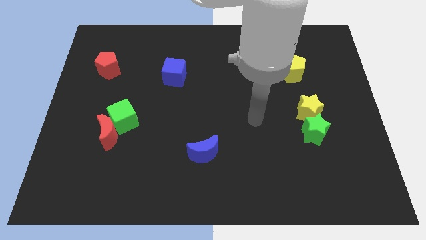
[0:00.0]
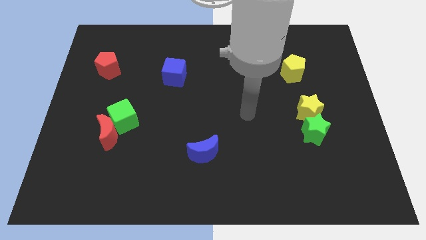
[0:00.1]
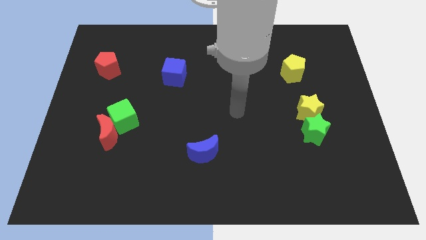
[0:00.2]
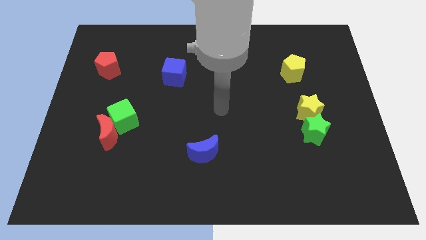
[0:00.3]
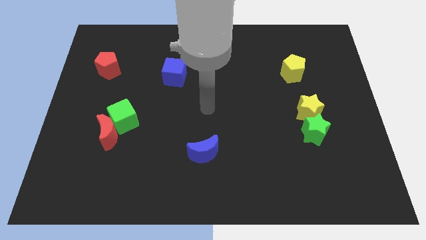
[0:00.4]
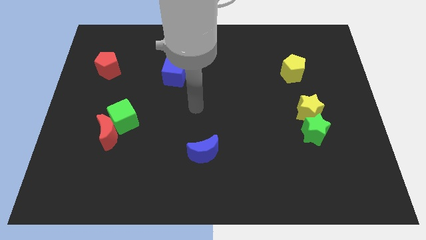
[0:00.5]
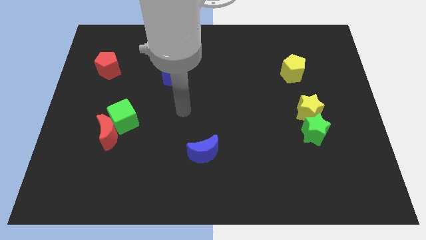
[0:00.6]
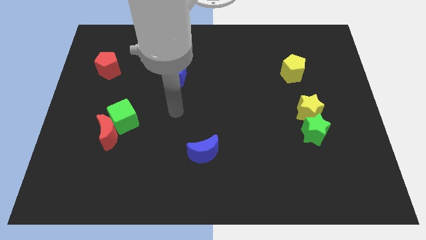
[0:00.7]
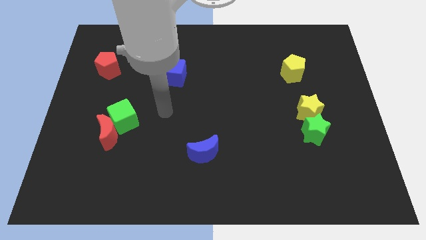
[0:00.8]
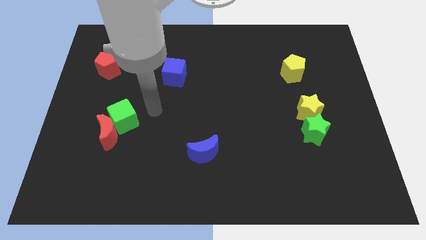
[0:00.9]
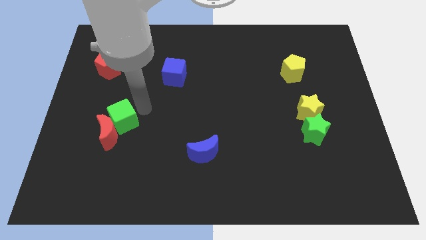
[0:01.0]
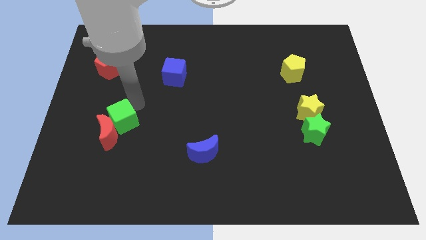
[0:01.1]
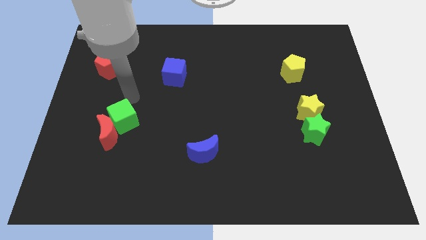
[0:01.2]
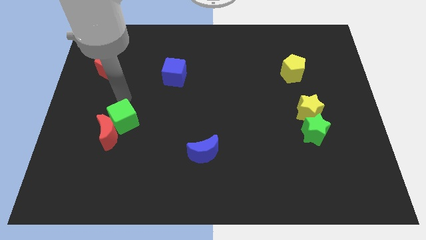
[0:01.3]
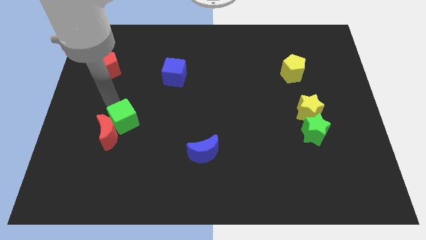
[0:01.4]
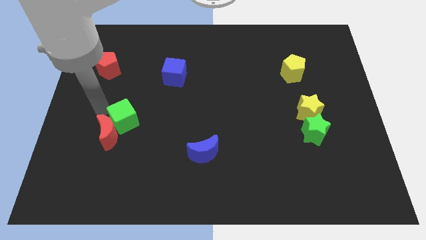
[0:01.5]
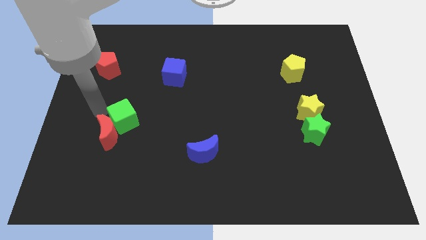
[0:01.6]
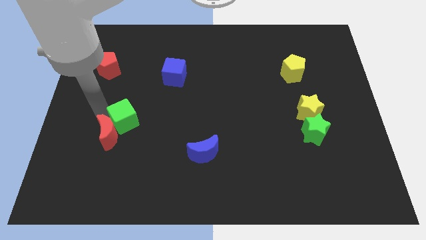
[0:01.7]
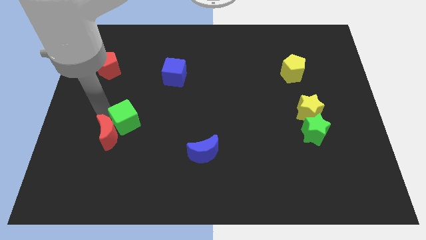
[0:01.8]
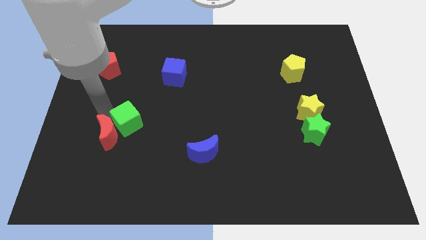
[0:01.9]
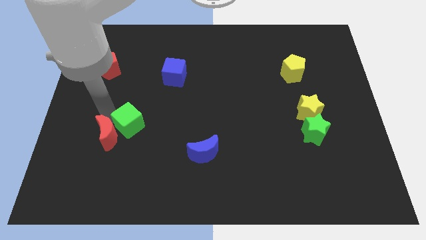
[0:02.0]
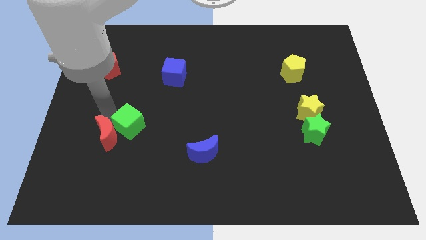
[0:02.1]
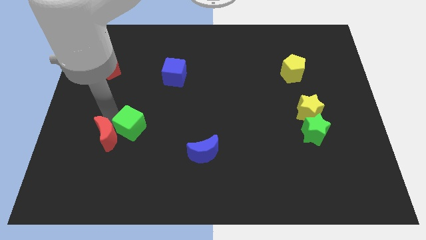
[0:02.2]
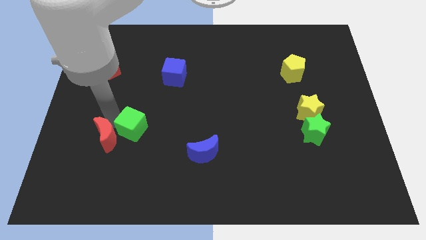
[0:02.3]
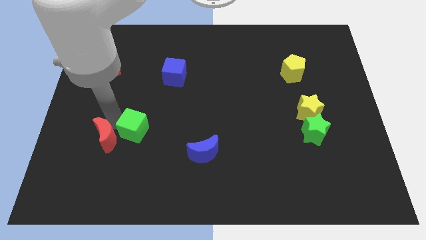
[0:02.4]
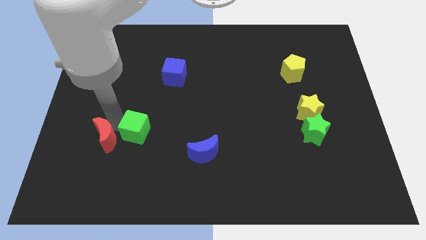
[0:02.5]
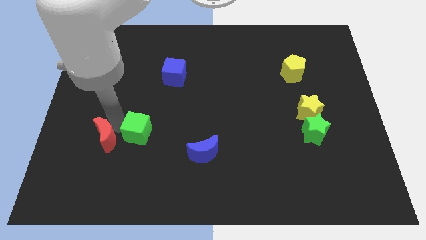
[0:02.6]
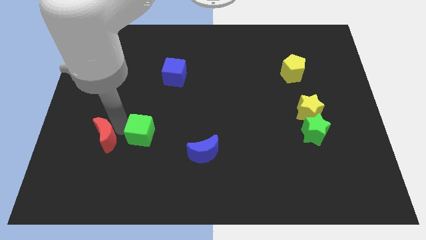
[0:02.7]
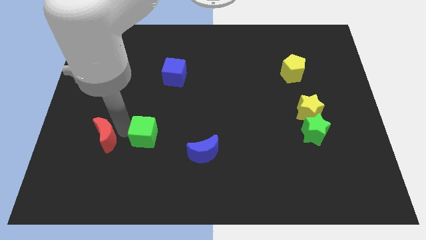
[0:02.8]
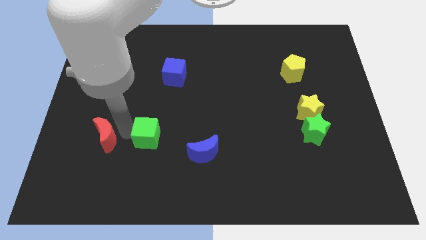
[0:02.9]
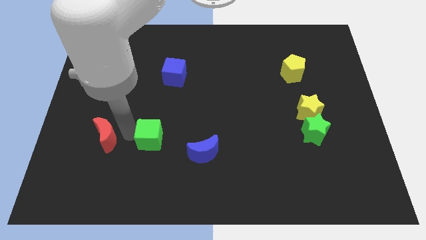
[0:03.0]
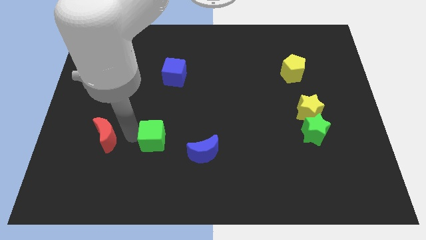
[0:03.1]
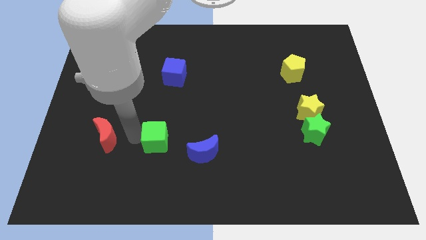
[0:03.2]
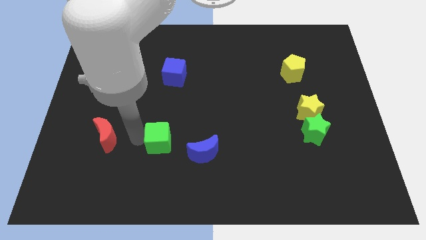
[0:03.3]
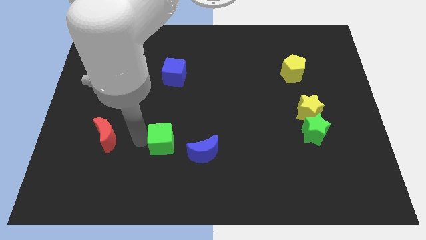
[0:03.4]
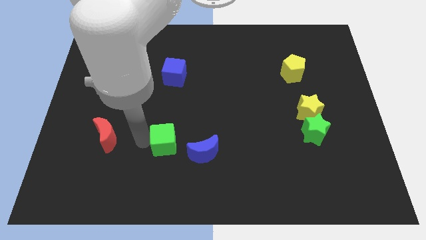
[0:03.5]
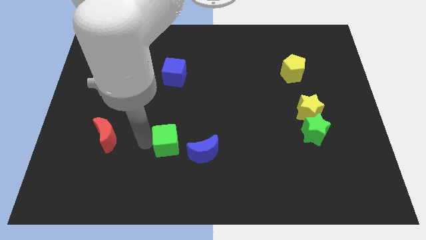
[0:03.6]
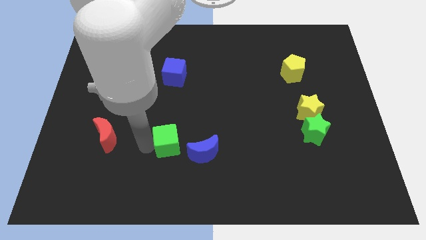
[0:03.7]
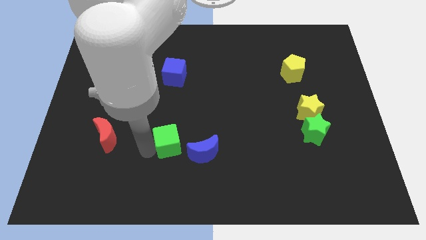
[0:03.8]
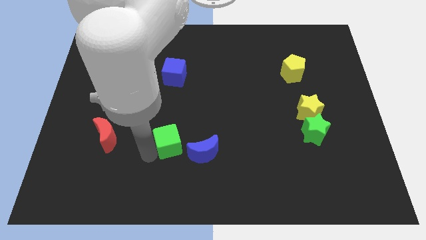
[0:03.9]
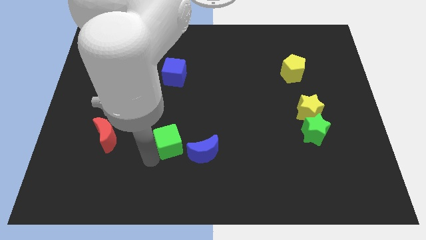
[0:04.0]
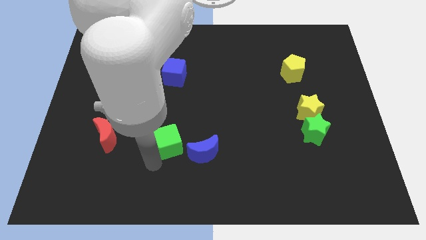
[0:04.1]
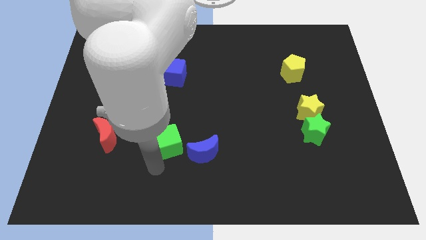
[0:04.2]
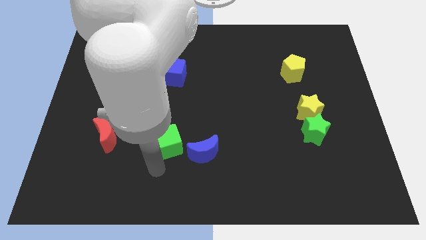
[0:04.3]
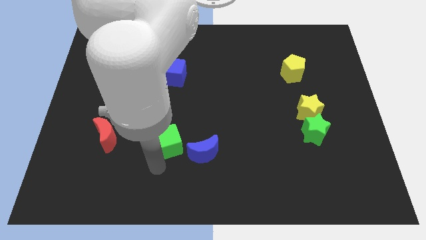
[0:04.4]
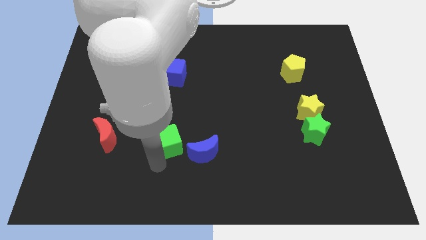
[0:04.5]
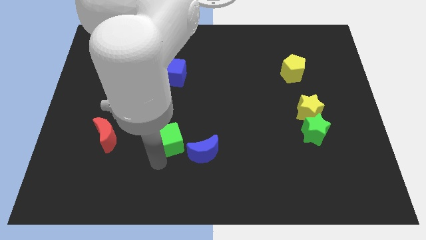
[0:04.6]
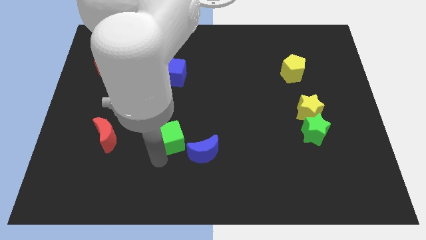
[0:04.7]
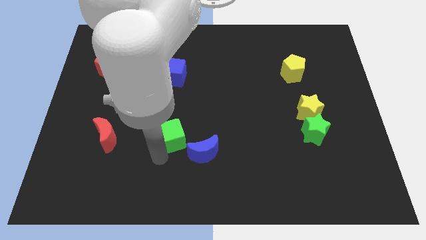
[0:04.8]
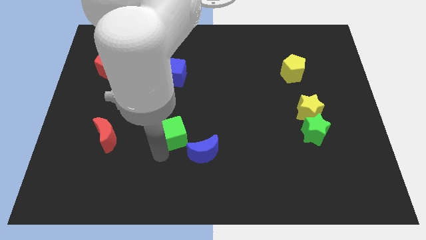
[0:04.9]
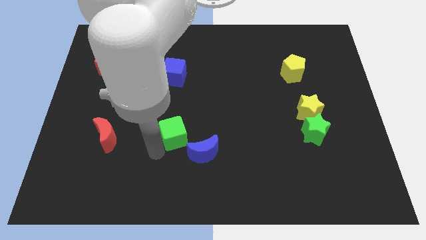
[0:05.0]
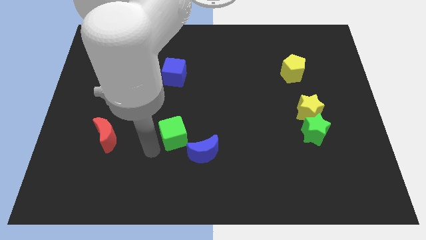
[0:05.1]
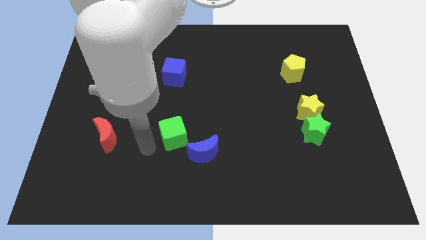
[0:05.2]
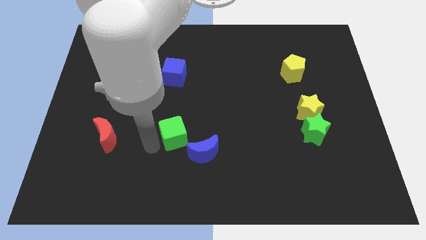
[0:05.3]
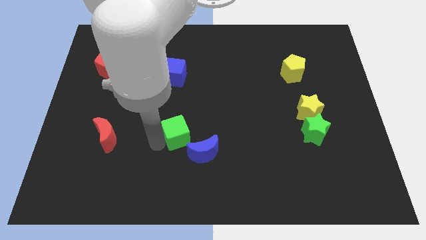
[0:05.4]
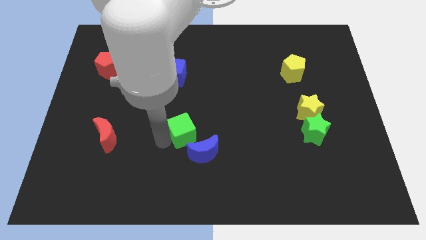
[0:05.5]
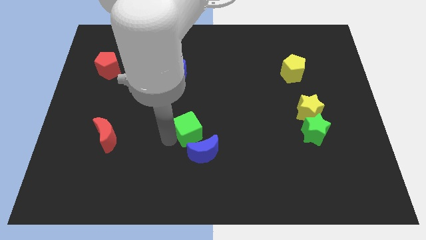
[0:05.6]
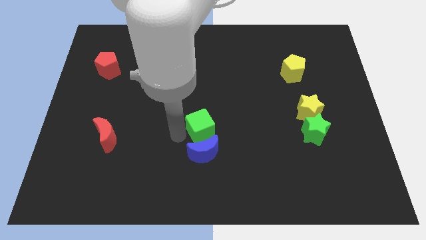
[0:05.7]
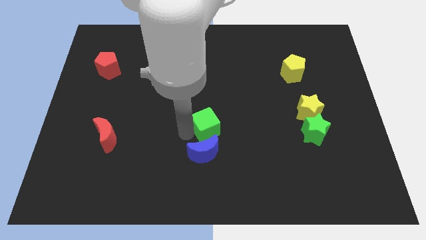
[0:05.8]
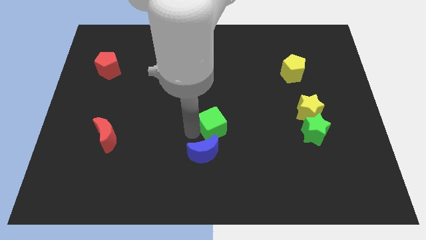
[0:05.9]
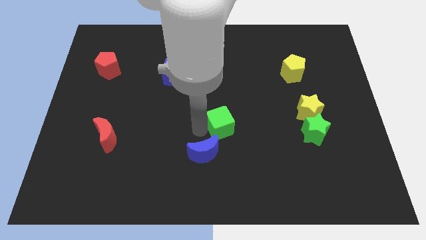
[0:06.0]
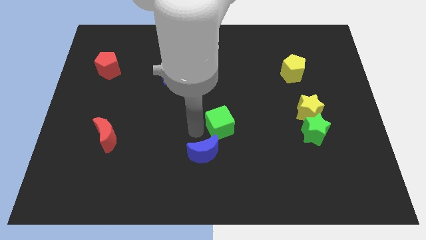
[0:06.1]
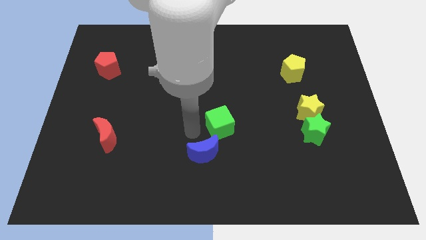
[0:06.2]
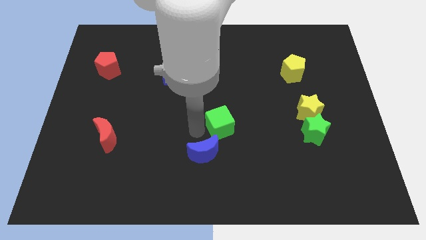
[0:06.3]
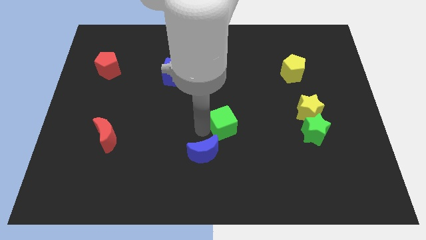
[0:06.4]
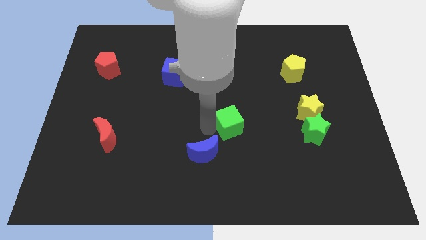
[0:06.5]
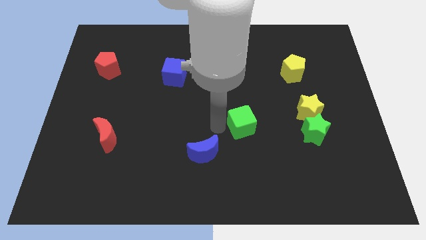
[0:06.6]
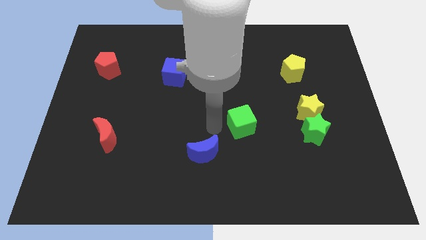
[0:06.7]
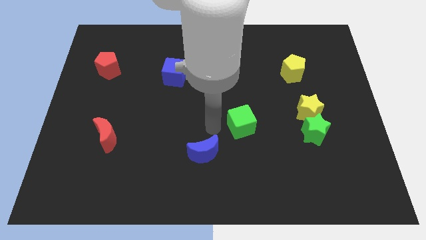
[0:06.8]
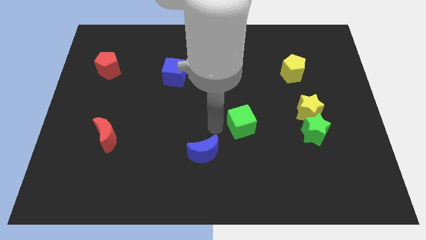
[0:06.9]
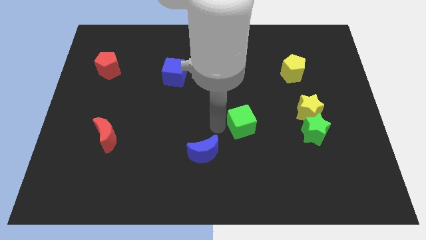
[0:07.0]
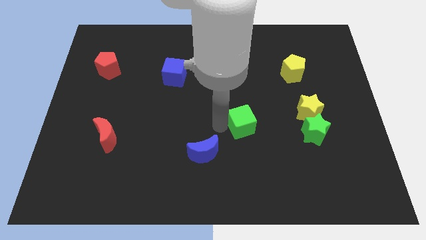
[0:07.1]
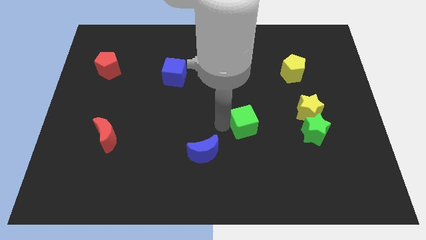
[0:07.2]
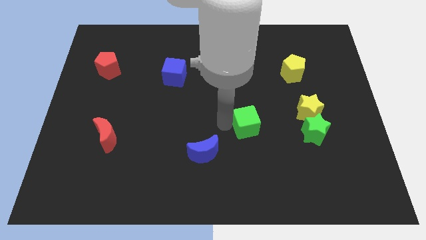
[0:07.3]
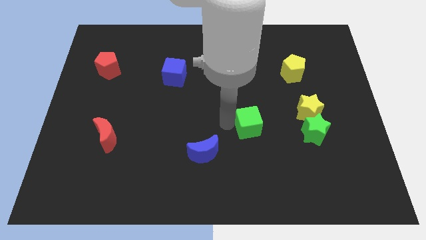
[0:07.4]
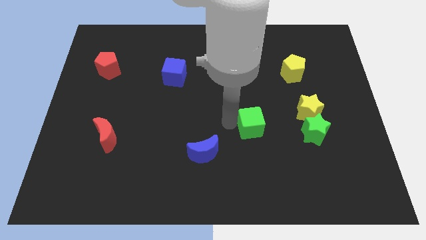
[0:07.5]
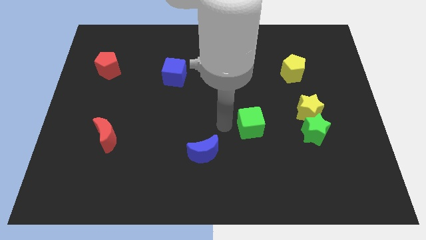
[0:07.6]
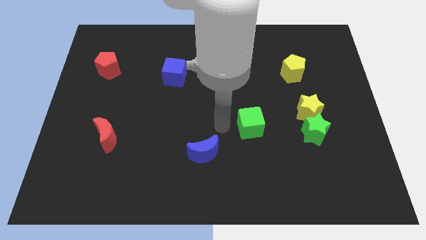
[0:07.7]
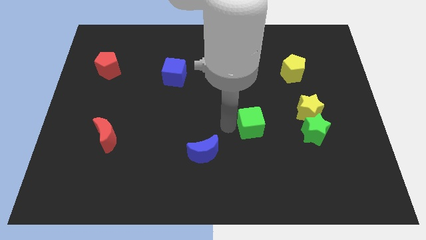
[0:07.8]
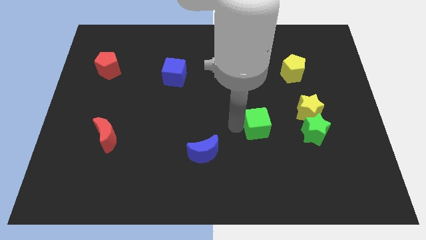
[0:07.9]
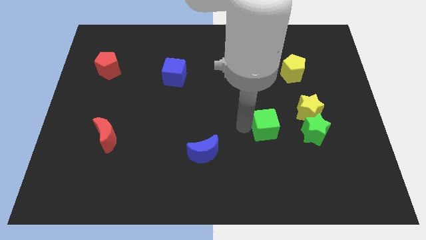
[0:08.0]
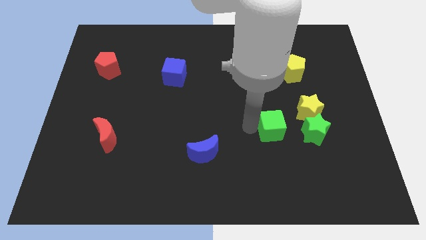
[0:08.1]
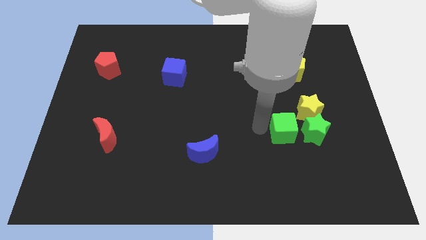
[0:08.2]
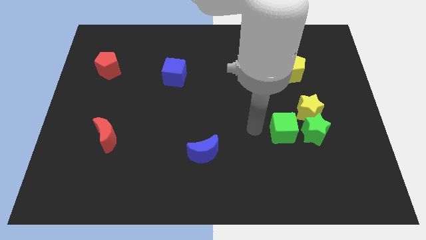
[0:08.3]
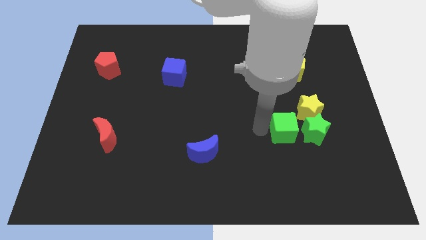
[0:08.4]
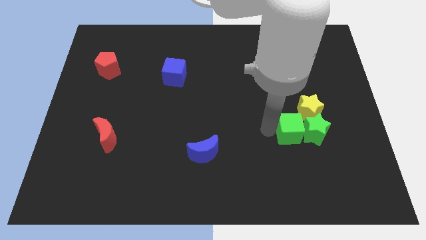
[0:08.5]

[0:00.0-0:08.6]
push the green cube to the green star
